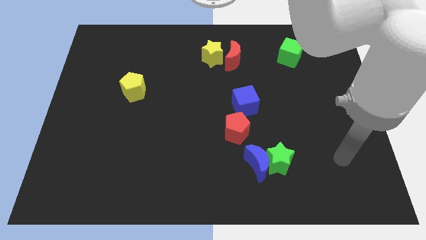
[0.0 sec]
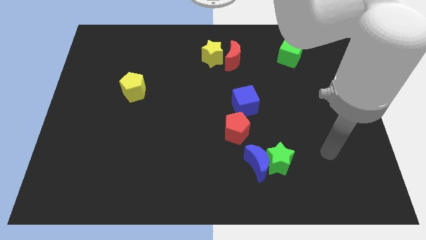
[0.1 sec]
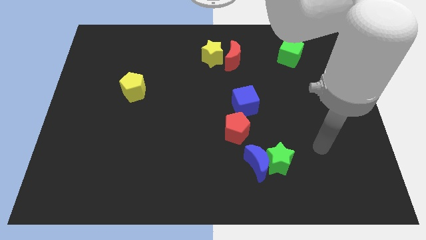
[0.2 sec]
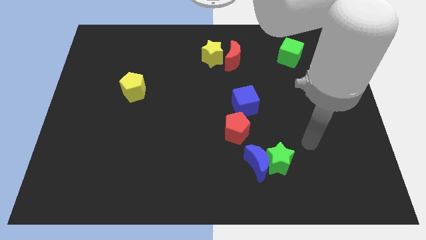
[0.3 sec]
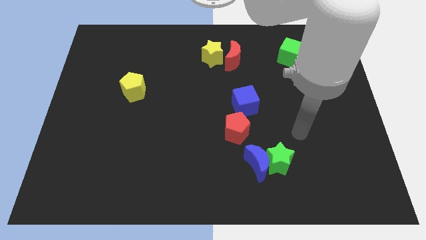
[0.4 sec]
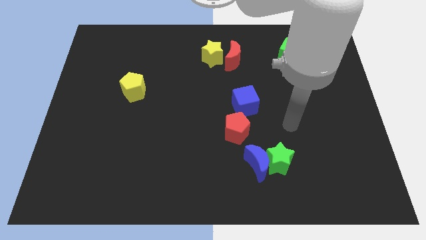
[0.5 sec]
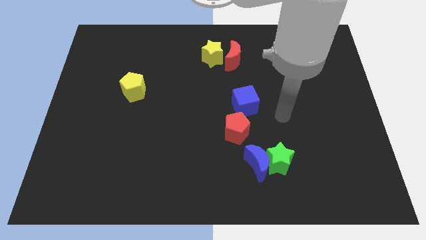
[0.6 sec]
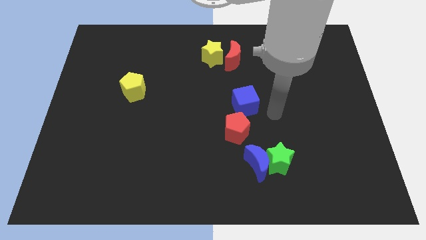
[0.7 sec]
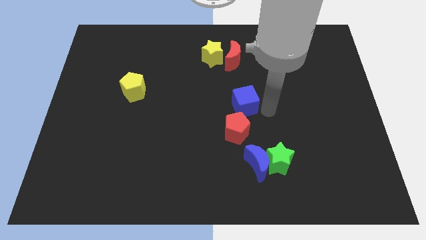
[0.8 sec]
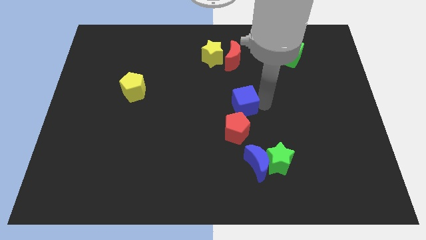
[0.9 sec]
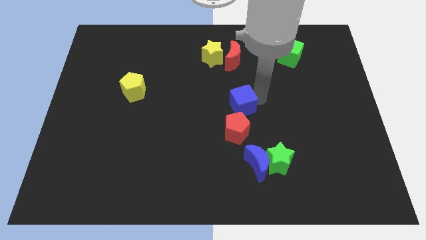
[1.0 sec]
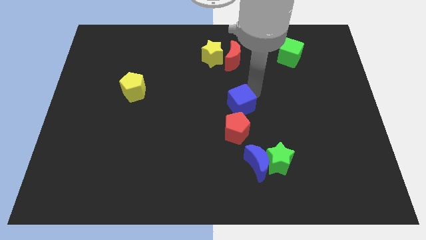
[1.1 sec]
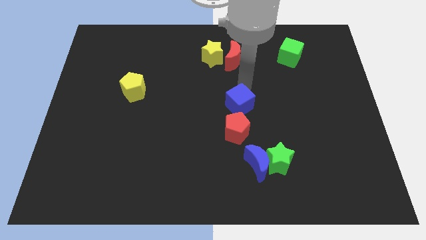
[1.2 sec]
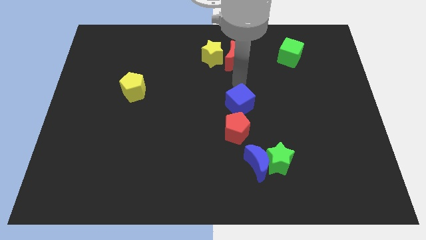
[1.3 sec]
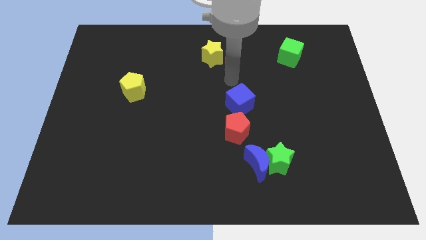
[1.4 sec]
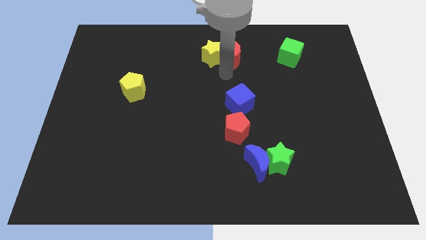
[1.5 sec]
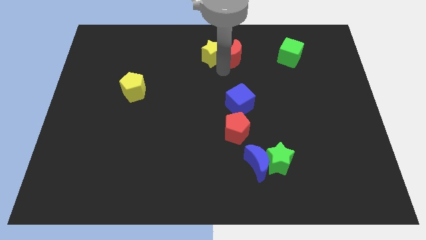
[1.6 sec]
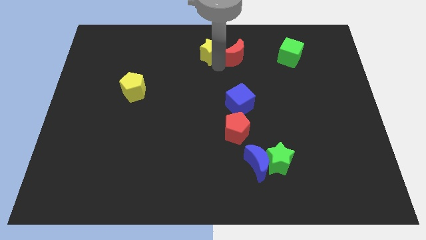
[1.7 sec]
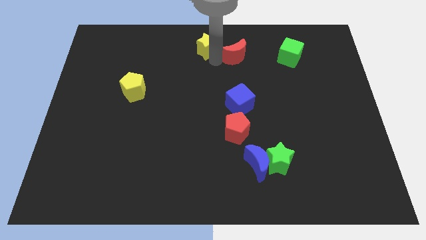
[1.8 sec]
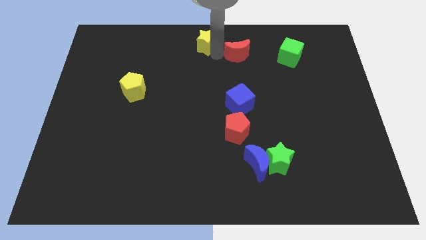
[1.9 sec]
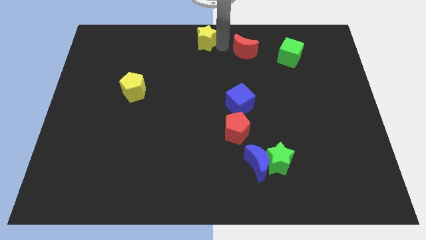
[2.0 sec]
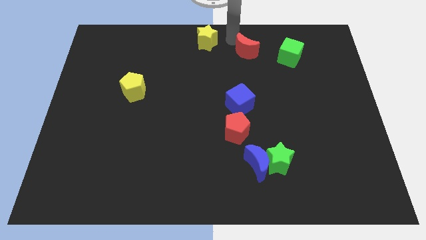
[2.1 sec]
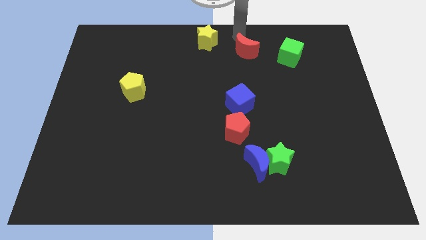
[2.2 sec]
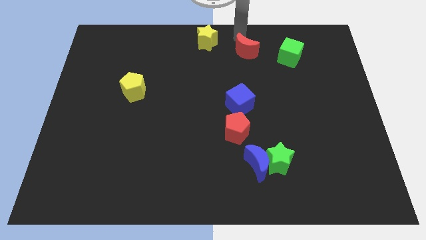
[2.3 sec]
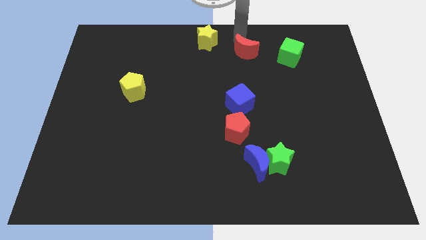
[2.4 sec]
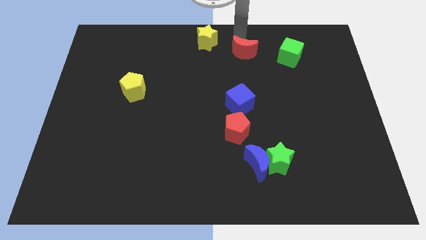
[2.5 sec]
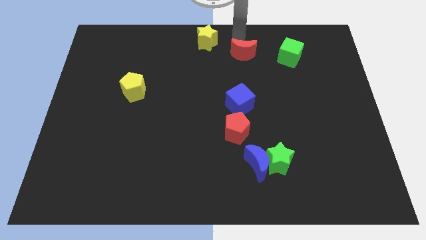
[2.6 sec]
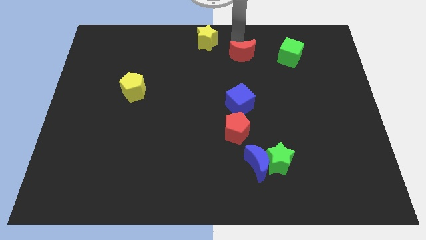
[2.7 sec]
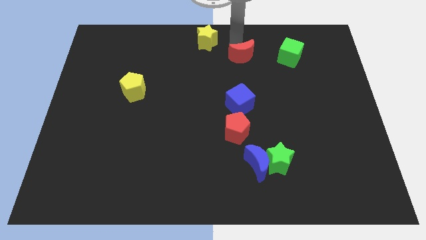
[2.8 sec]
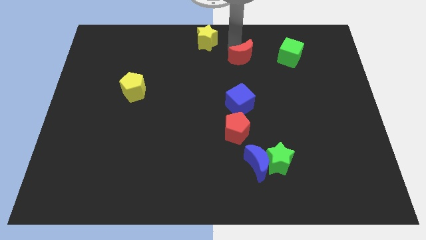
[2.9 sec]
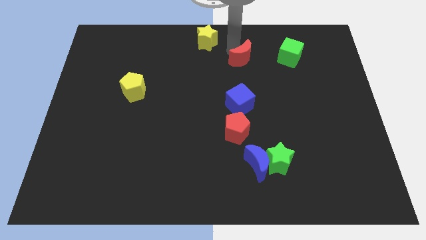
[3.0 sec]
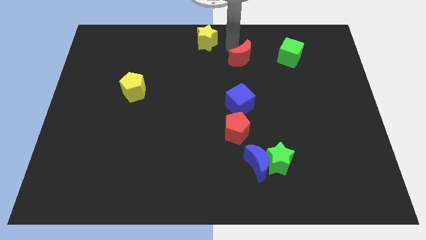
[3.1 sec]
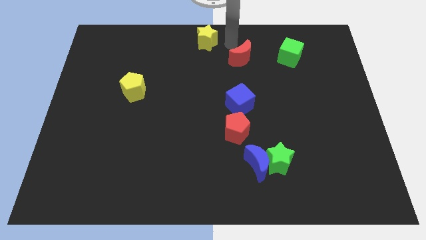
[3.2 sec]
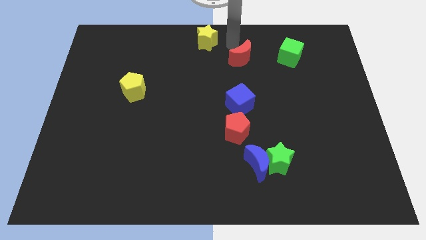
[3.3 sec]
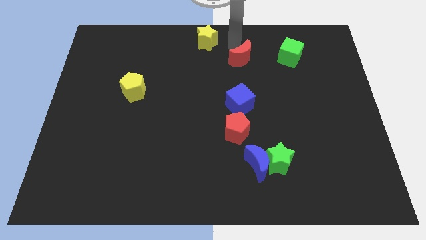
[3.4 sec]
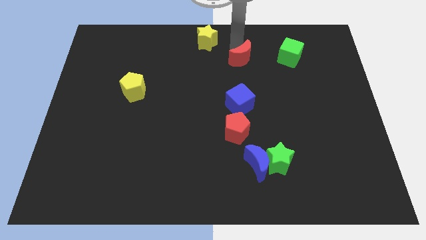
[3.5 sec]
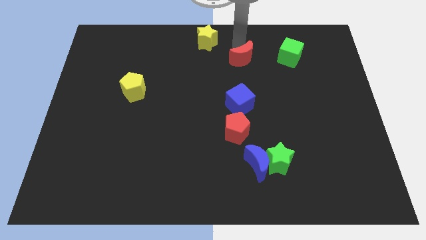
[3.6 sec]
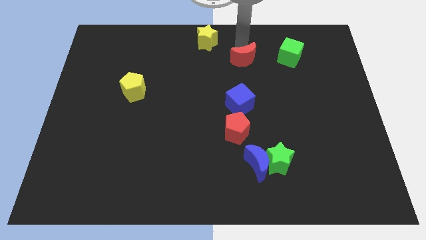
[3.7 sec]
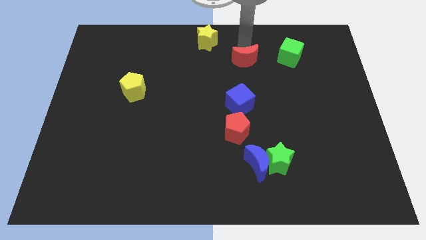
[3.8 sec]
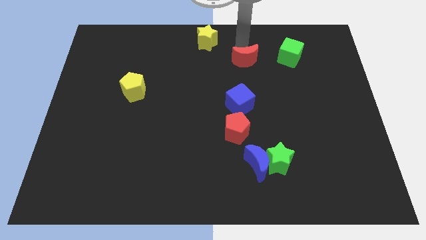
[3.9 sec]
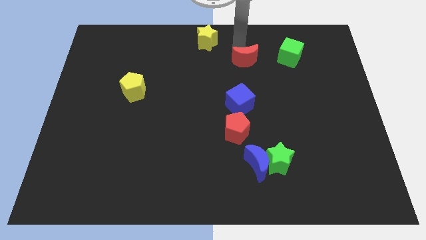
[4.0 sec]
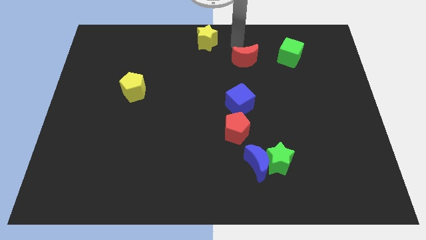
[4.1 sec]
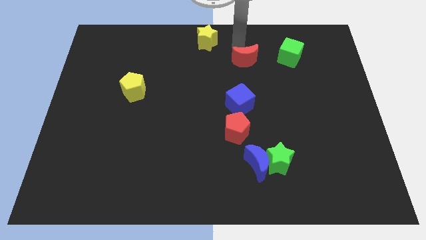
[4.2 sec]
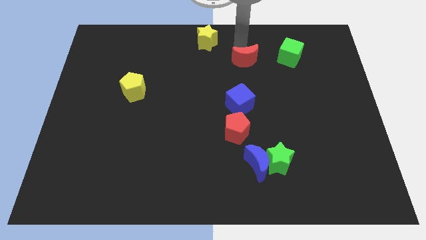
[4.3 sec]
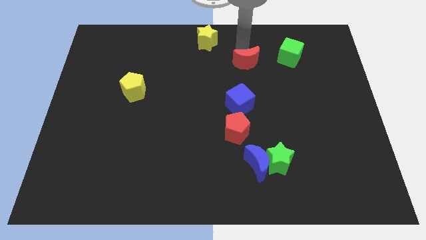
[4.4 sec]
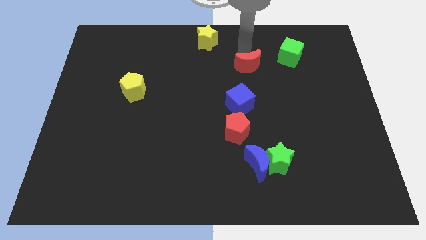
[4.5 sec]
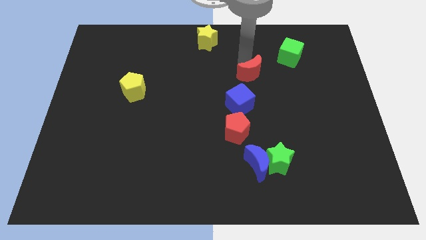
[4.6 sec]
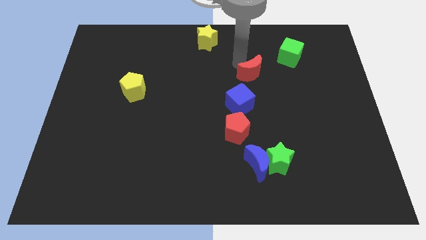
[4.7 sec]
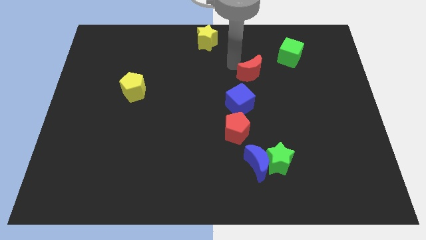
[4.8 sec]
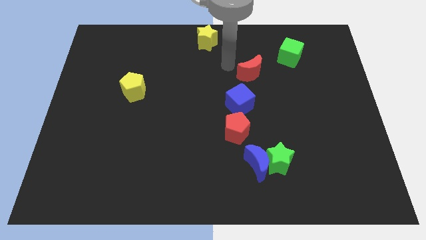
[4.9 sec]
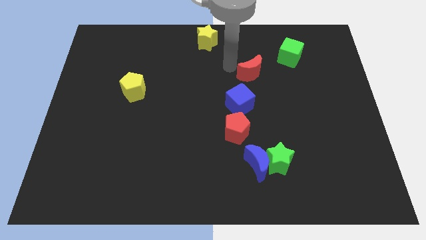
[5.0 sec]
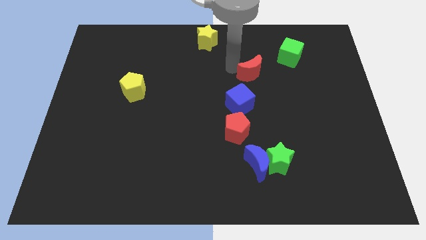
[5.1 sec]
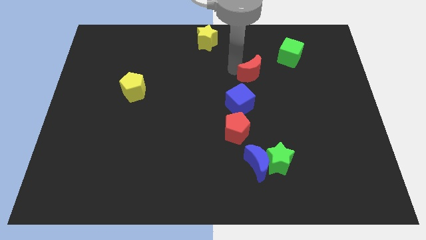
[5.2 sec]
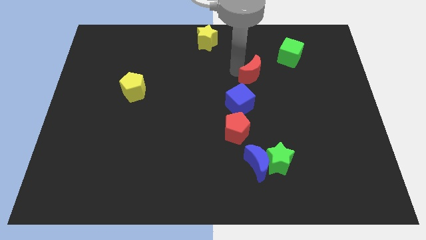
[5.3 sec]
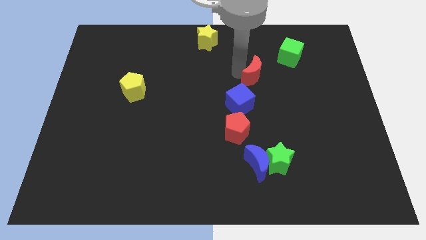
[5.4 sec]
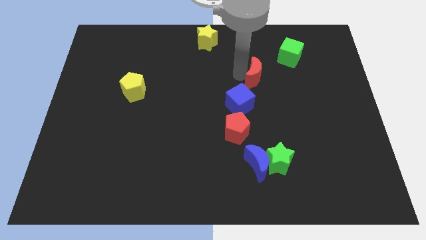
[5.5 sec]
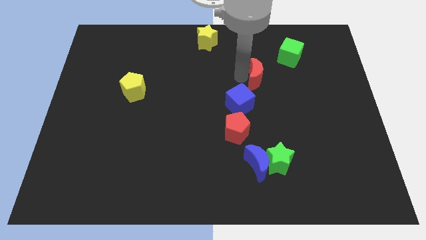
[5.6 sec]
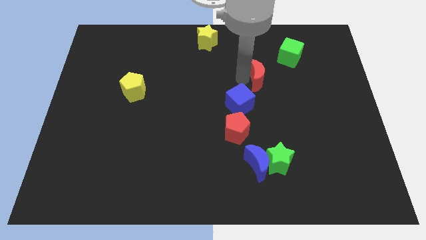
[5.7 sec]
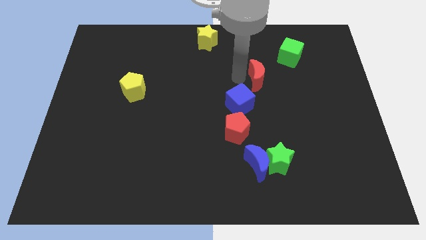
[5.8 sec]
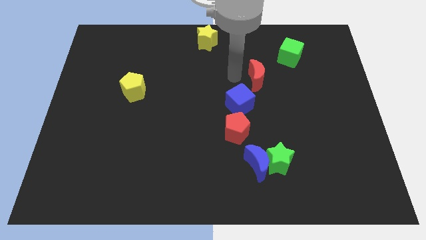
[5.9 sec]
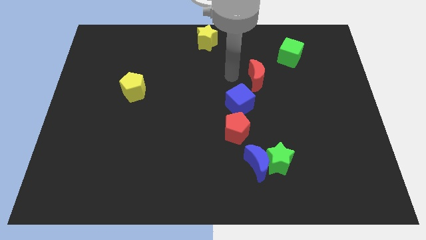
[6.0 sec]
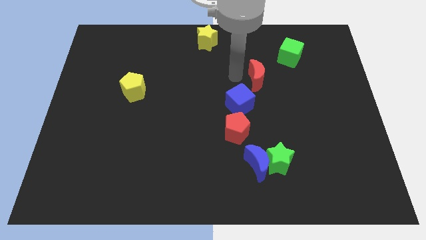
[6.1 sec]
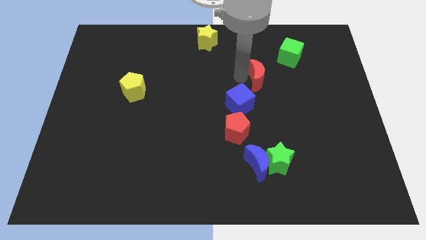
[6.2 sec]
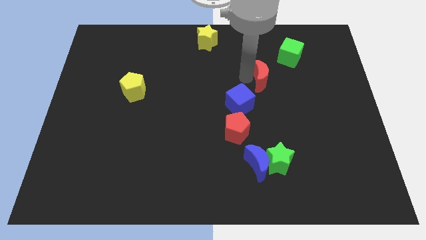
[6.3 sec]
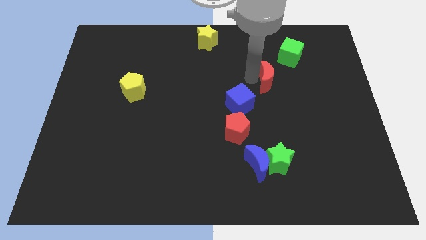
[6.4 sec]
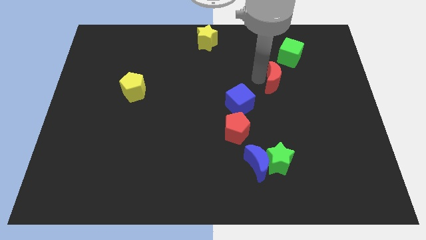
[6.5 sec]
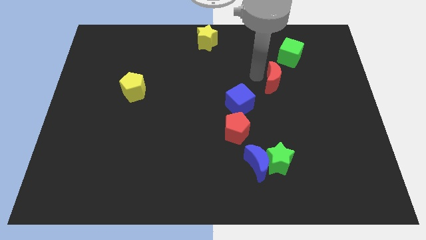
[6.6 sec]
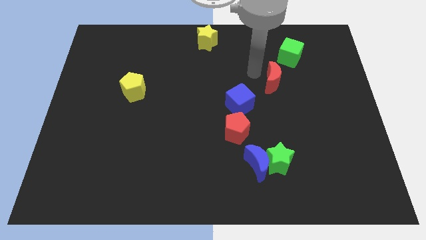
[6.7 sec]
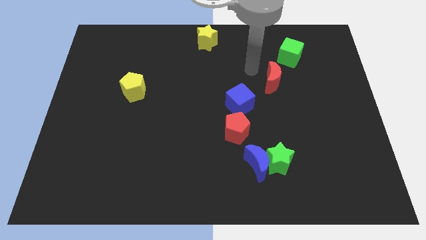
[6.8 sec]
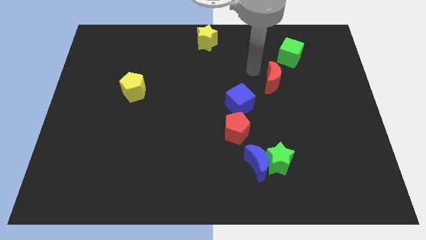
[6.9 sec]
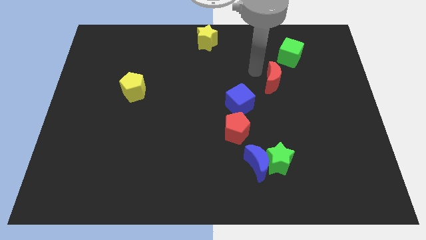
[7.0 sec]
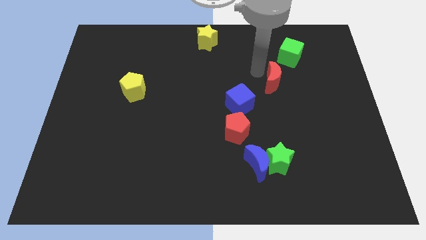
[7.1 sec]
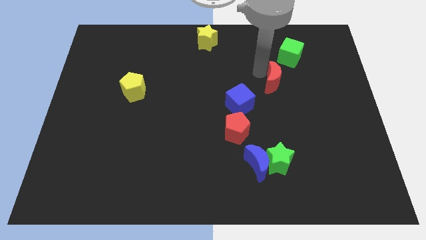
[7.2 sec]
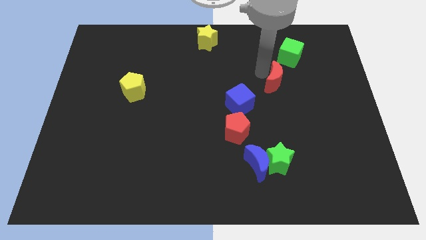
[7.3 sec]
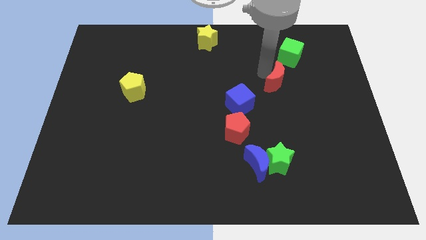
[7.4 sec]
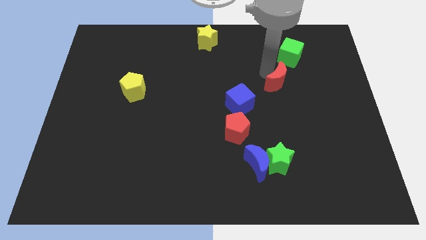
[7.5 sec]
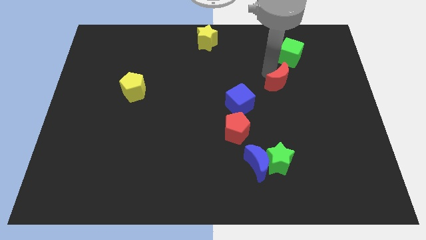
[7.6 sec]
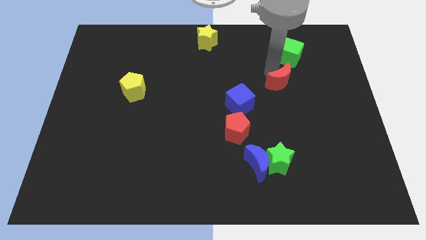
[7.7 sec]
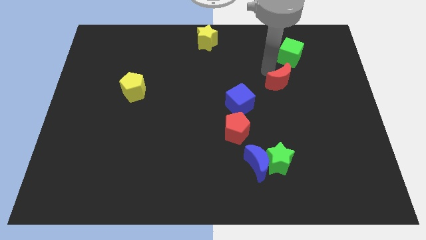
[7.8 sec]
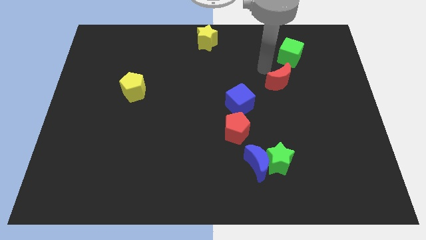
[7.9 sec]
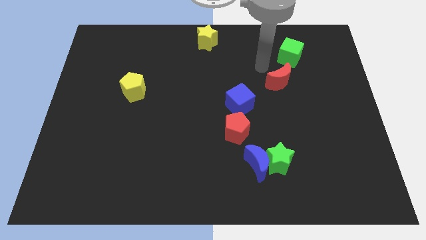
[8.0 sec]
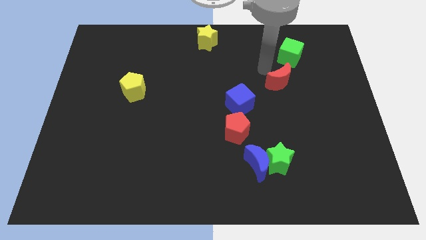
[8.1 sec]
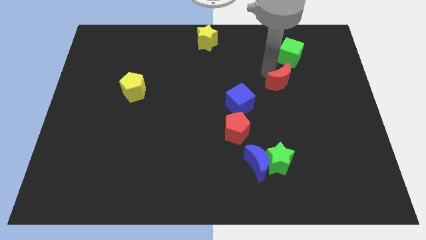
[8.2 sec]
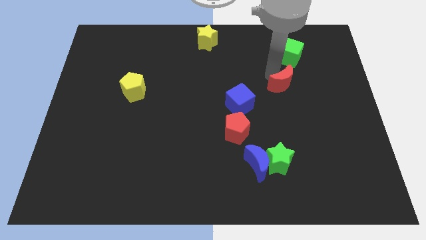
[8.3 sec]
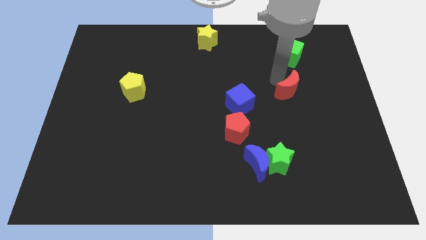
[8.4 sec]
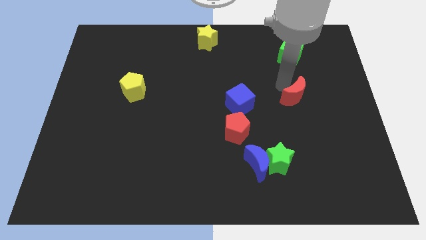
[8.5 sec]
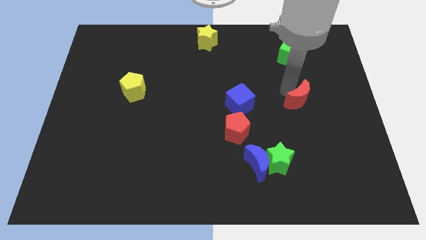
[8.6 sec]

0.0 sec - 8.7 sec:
move the red moon down and then right
